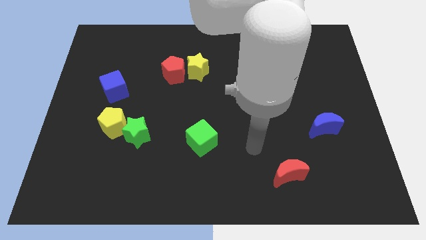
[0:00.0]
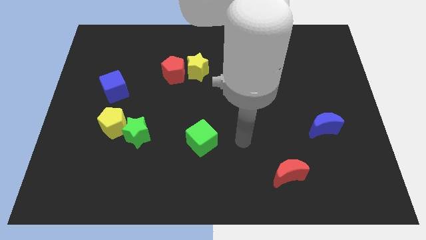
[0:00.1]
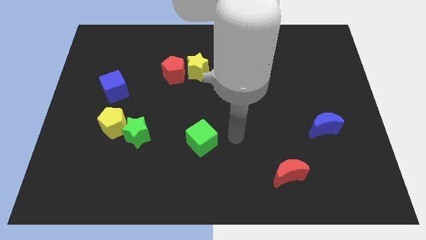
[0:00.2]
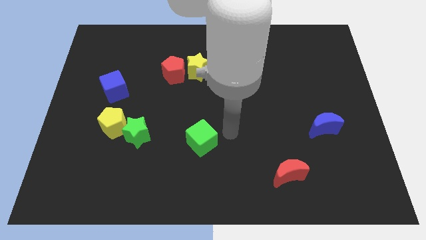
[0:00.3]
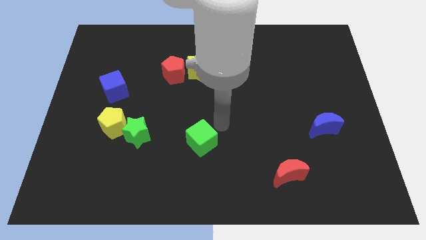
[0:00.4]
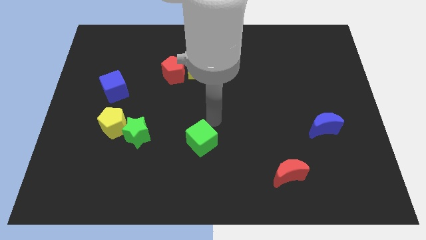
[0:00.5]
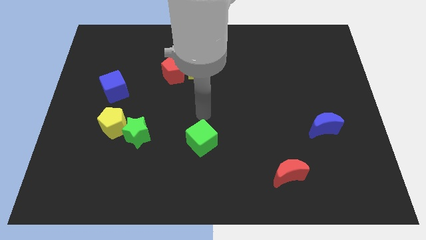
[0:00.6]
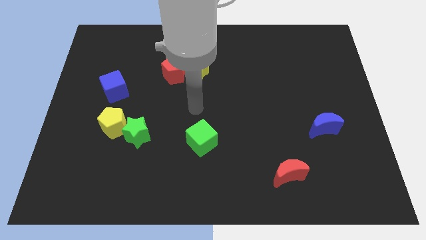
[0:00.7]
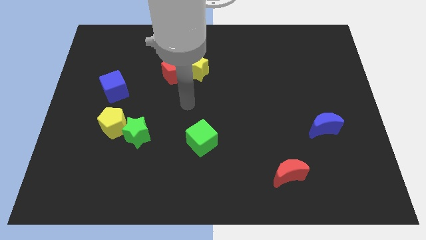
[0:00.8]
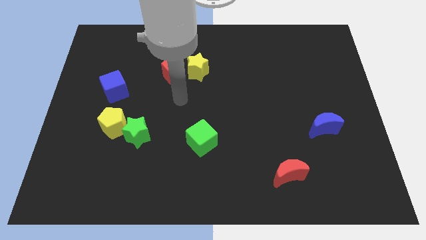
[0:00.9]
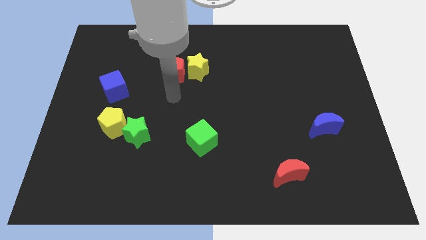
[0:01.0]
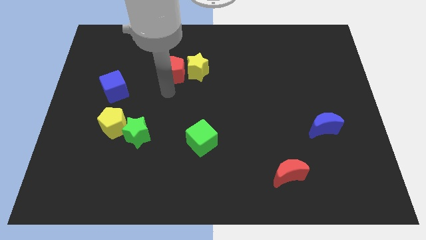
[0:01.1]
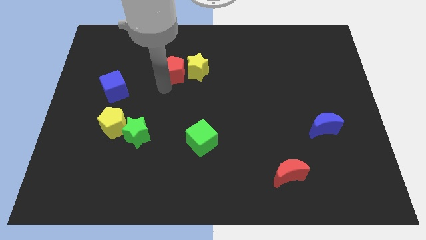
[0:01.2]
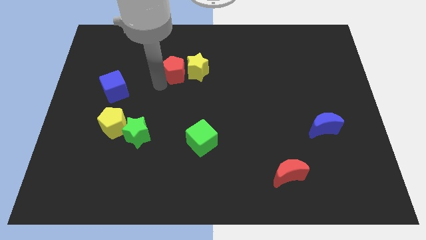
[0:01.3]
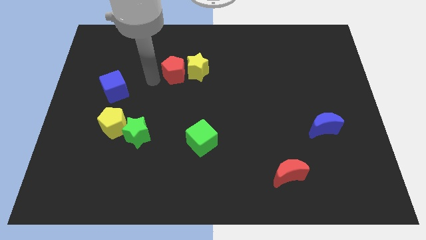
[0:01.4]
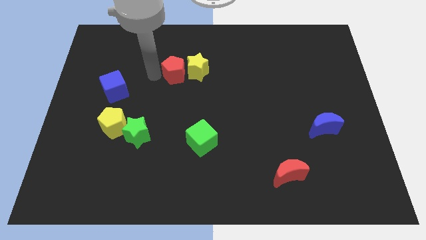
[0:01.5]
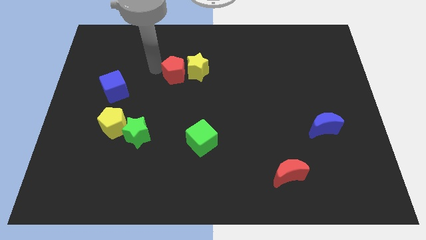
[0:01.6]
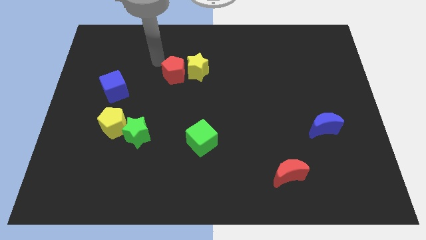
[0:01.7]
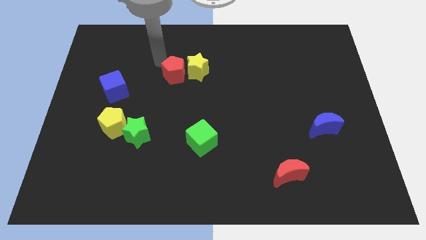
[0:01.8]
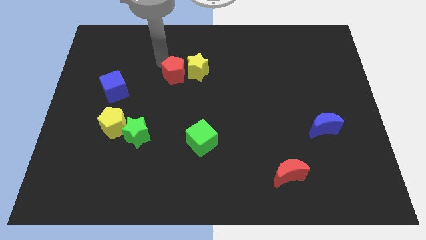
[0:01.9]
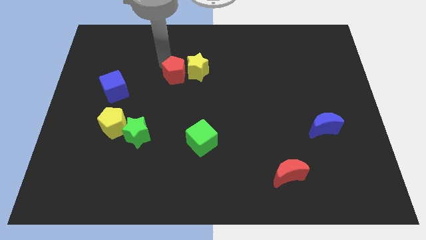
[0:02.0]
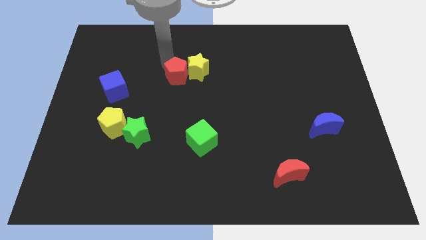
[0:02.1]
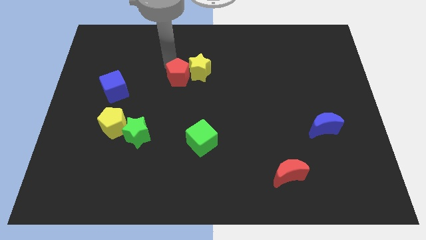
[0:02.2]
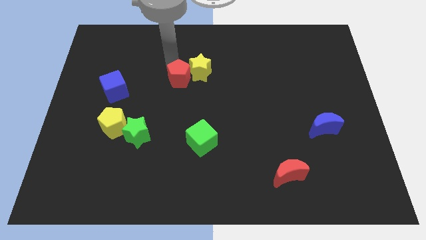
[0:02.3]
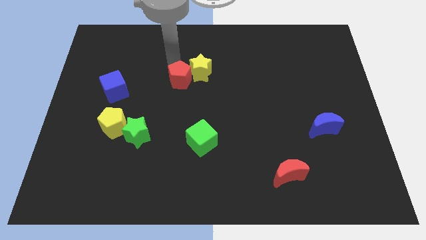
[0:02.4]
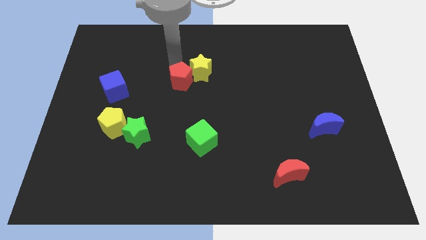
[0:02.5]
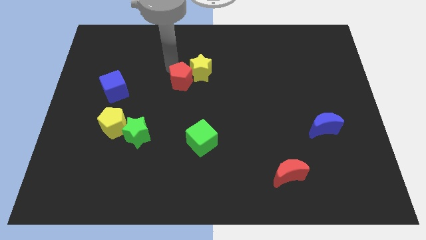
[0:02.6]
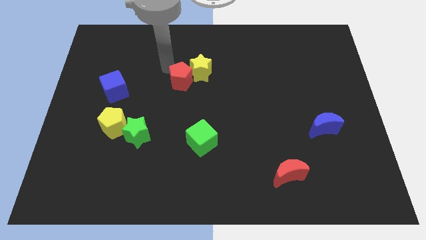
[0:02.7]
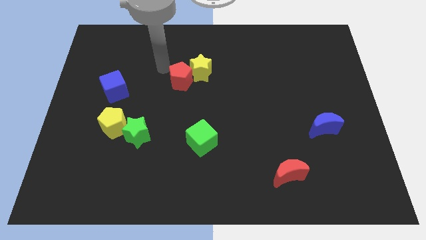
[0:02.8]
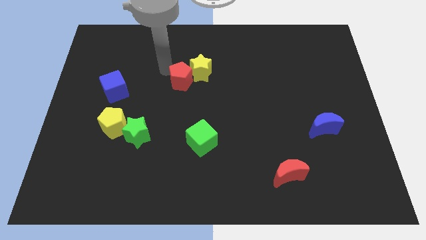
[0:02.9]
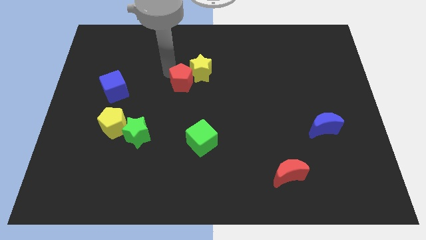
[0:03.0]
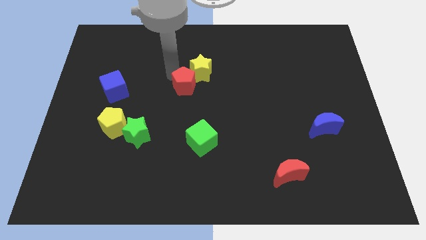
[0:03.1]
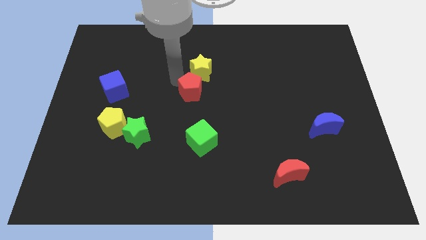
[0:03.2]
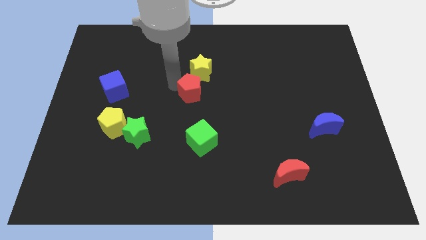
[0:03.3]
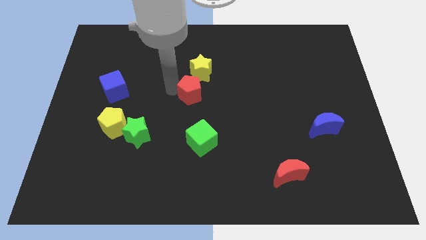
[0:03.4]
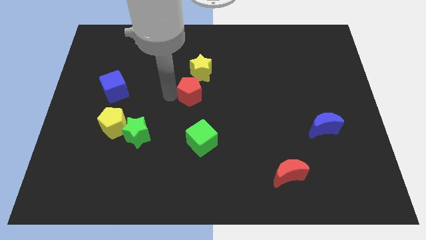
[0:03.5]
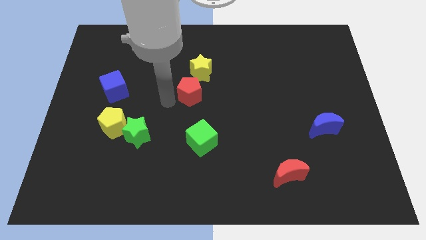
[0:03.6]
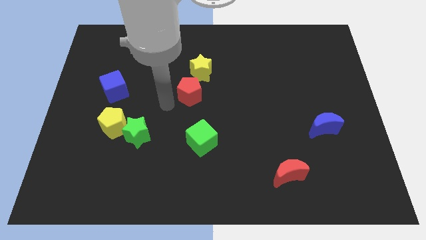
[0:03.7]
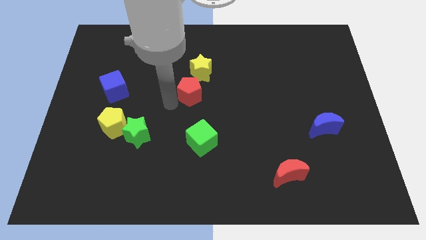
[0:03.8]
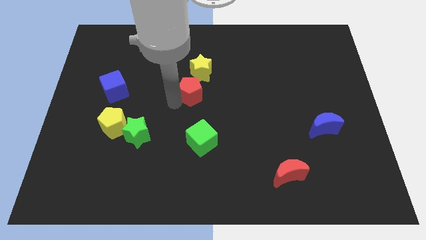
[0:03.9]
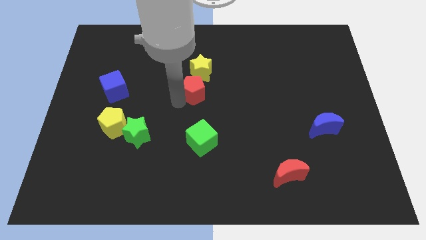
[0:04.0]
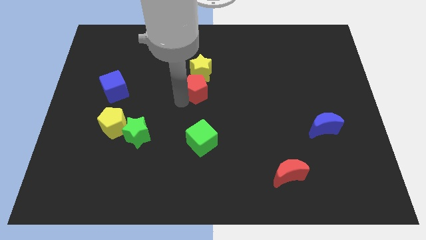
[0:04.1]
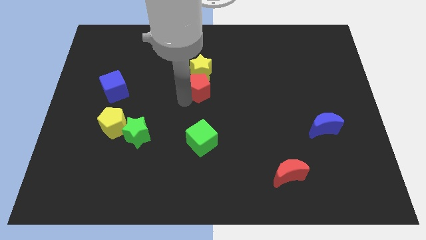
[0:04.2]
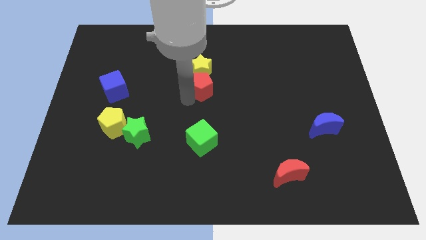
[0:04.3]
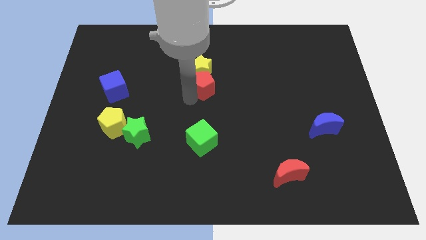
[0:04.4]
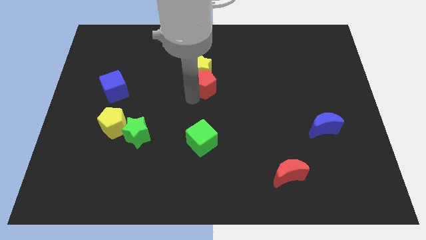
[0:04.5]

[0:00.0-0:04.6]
slightly push the red pentagon to the right

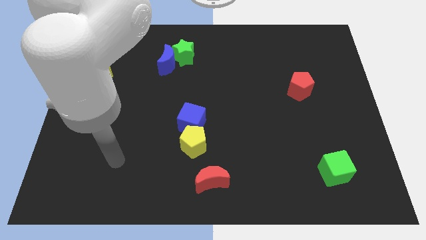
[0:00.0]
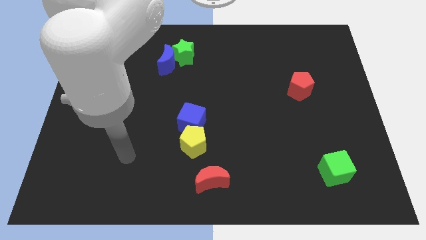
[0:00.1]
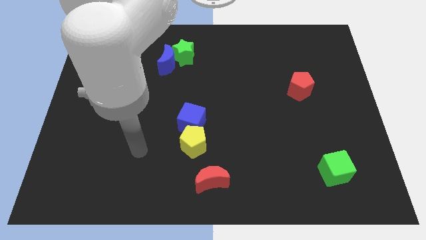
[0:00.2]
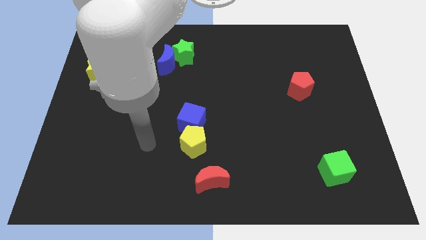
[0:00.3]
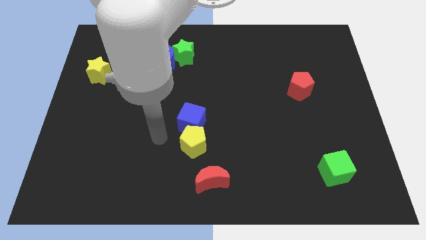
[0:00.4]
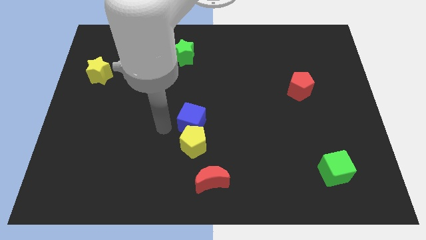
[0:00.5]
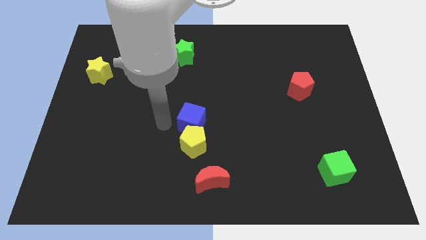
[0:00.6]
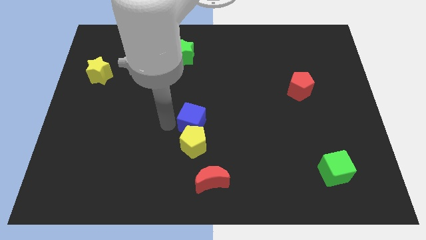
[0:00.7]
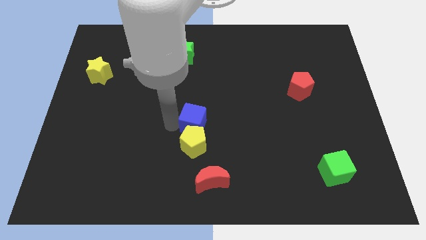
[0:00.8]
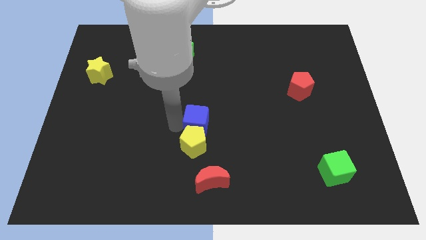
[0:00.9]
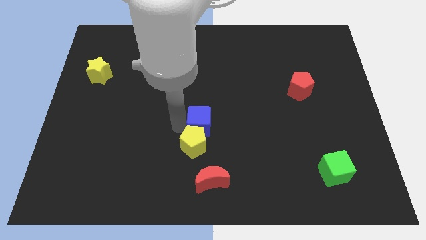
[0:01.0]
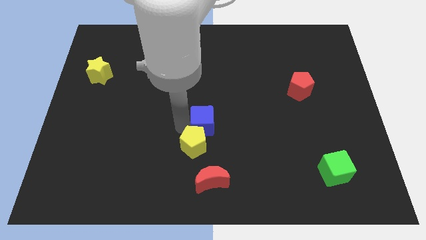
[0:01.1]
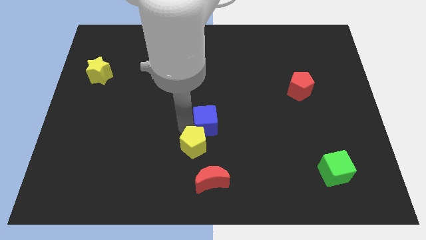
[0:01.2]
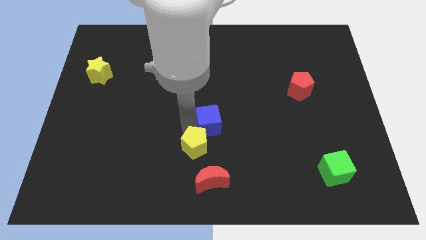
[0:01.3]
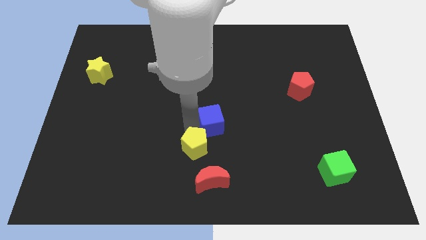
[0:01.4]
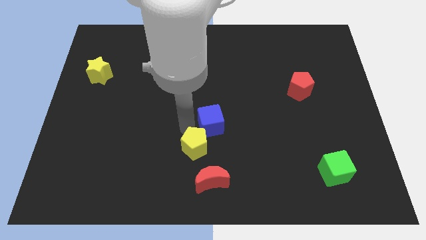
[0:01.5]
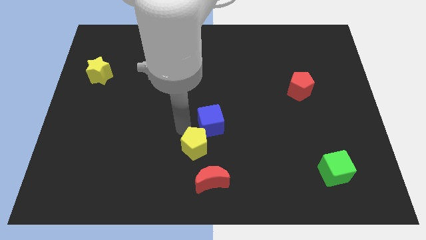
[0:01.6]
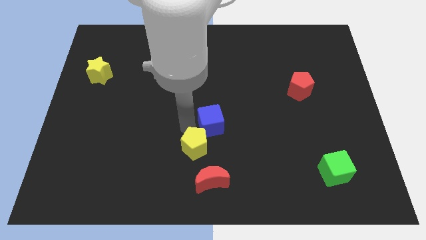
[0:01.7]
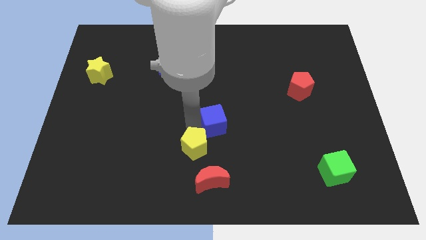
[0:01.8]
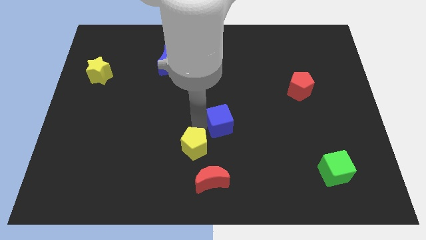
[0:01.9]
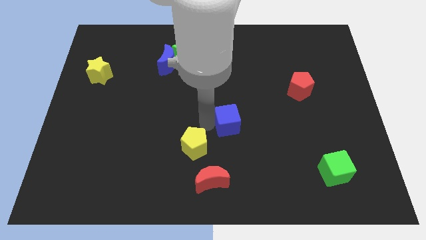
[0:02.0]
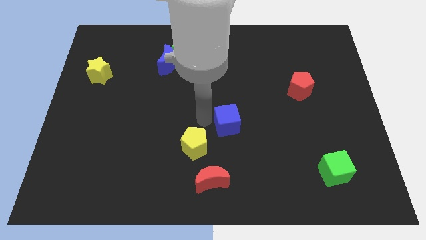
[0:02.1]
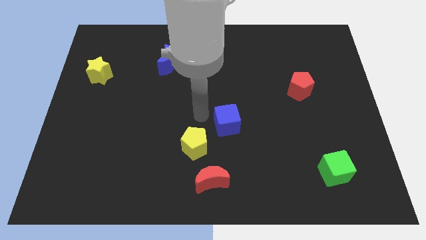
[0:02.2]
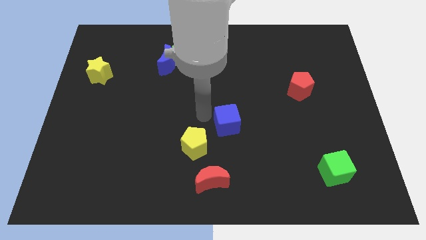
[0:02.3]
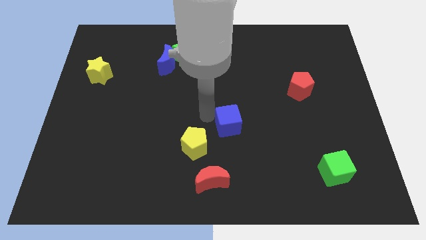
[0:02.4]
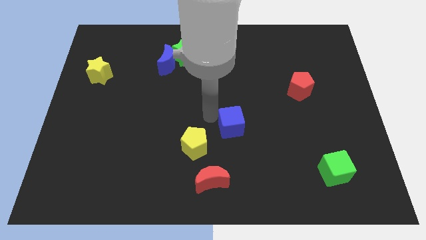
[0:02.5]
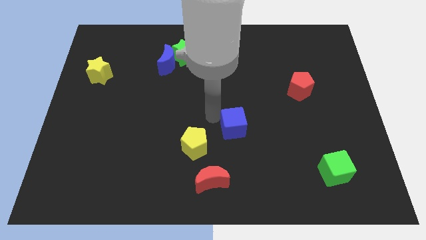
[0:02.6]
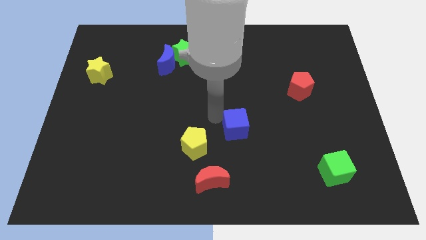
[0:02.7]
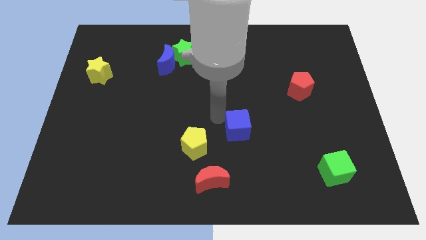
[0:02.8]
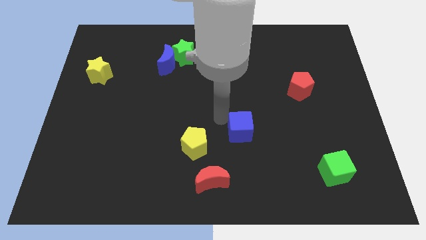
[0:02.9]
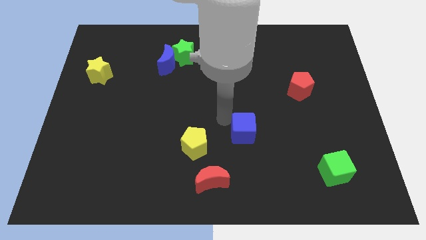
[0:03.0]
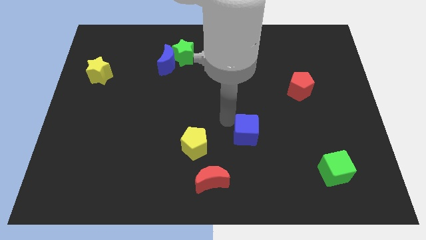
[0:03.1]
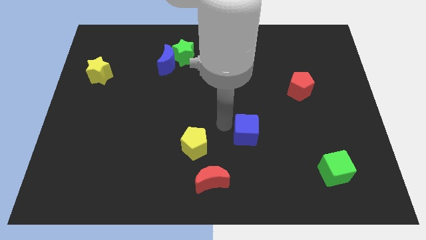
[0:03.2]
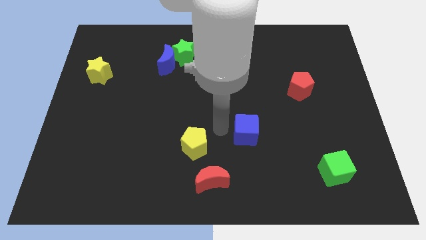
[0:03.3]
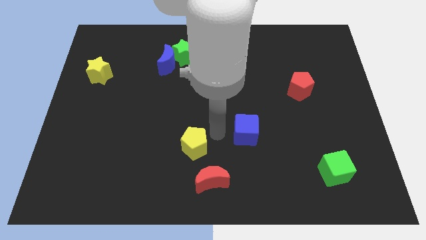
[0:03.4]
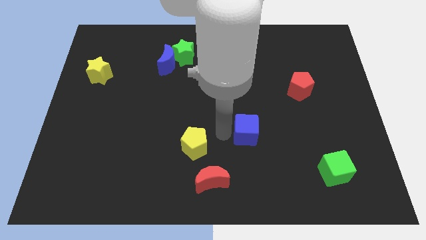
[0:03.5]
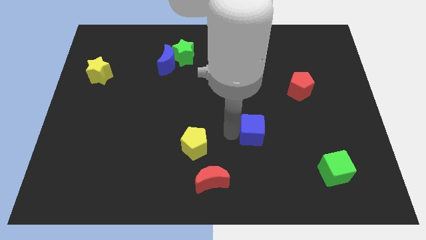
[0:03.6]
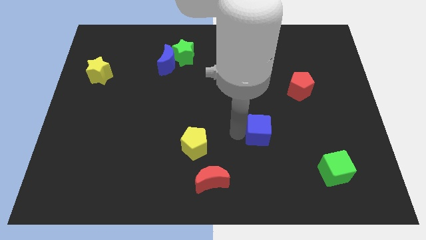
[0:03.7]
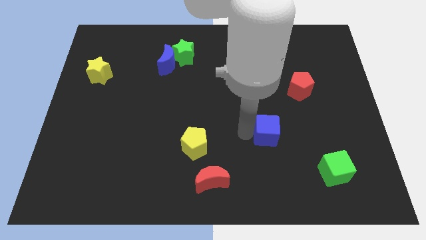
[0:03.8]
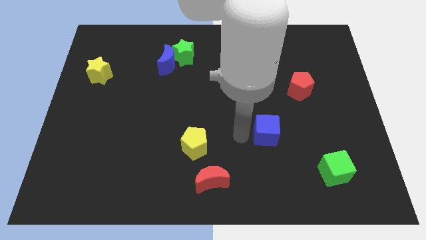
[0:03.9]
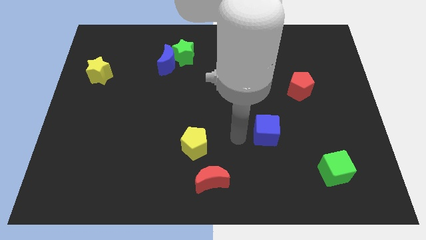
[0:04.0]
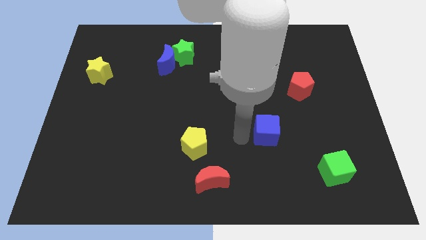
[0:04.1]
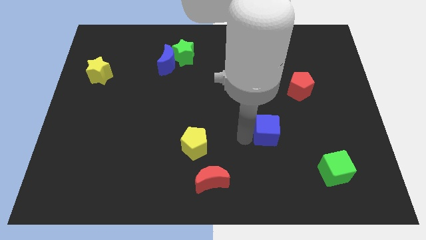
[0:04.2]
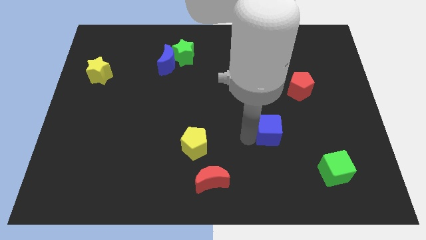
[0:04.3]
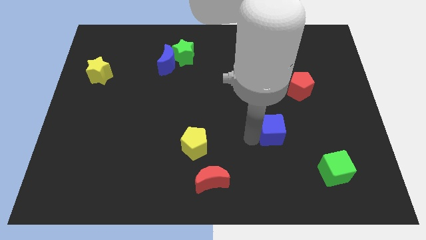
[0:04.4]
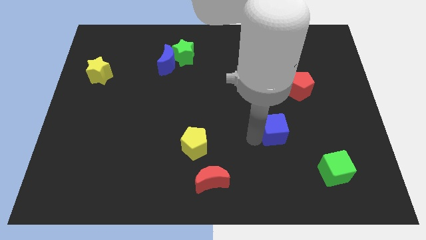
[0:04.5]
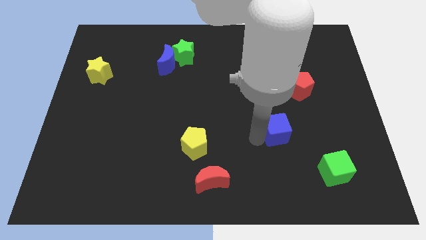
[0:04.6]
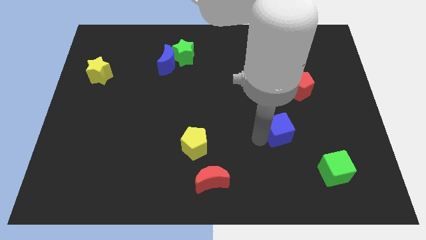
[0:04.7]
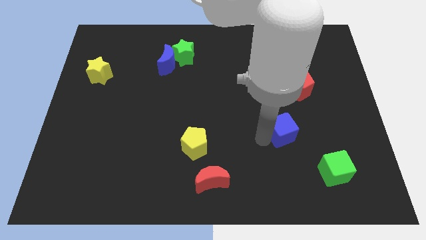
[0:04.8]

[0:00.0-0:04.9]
slide the blue cube right
